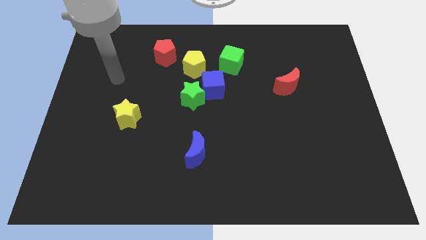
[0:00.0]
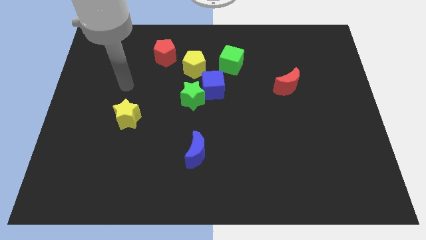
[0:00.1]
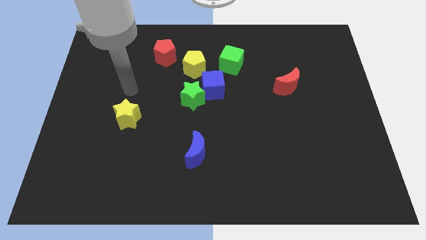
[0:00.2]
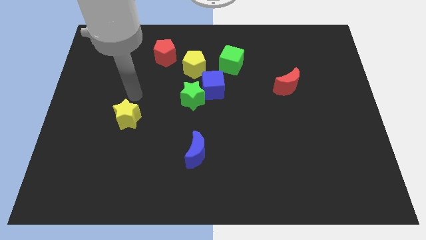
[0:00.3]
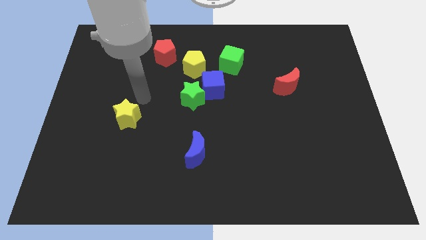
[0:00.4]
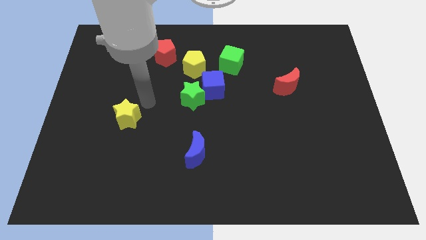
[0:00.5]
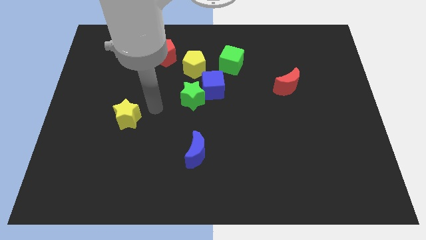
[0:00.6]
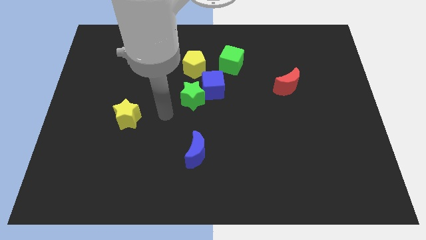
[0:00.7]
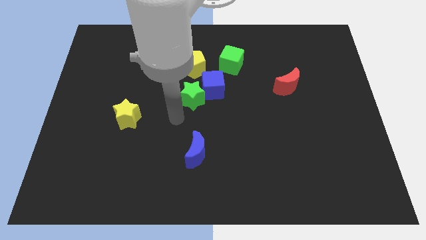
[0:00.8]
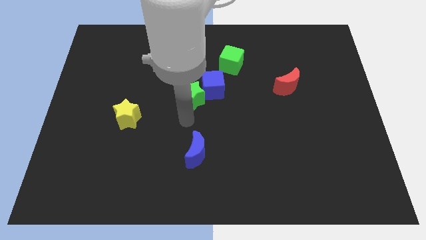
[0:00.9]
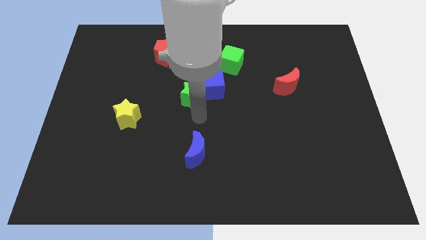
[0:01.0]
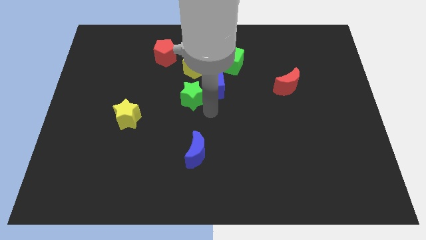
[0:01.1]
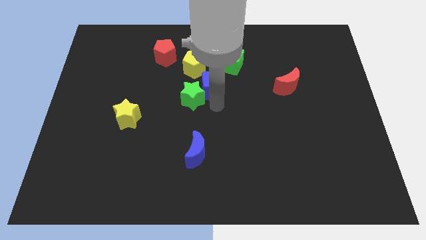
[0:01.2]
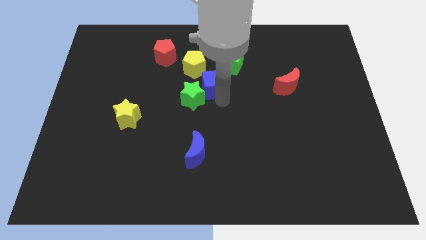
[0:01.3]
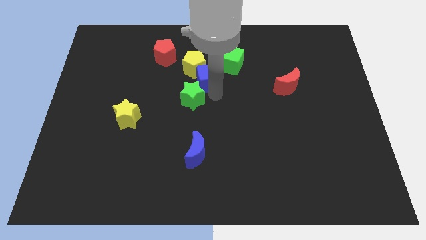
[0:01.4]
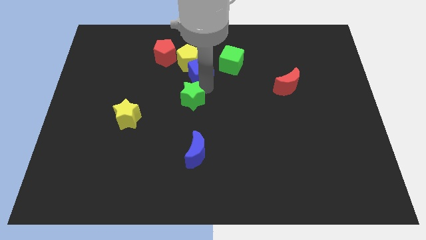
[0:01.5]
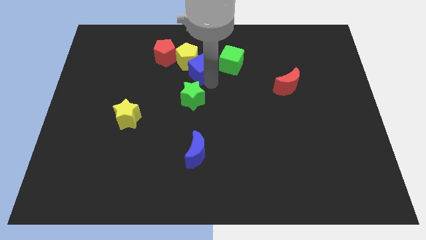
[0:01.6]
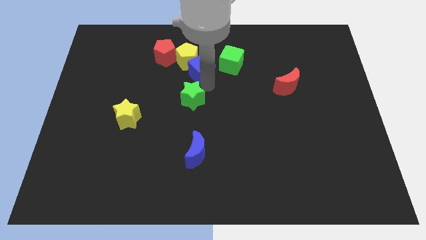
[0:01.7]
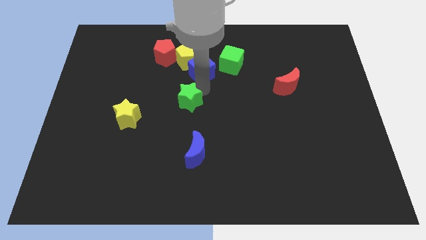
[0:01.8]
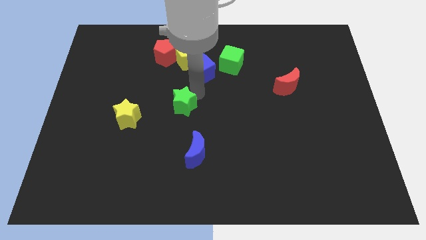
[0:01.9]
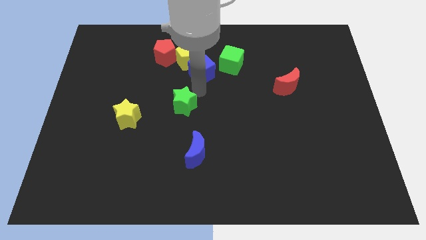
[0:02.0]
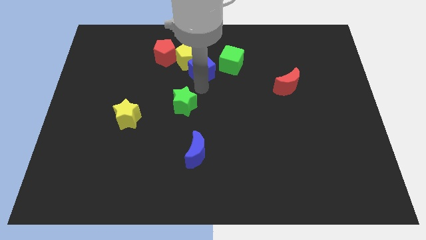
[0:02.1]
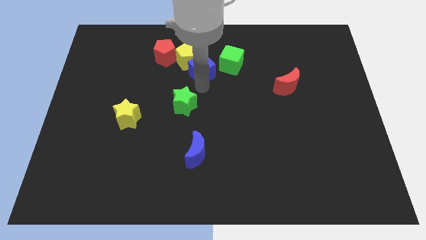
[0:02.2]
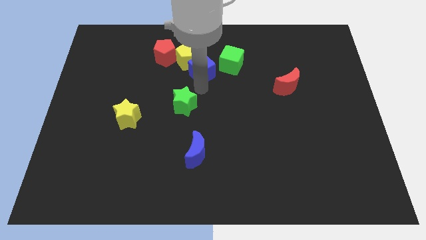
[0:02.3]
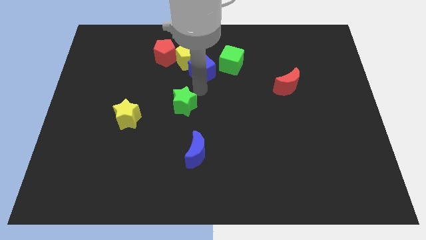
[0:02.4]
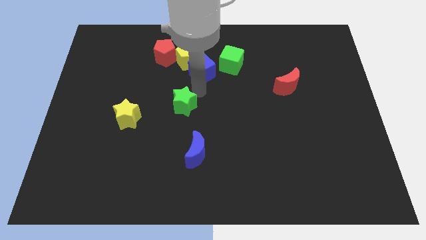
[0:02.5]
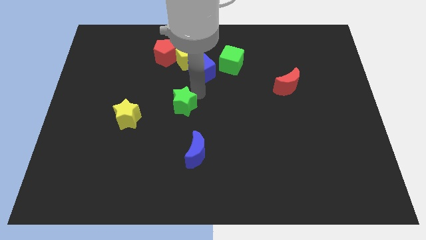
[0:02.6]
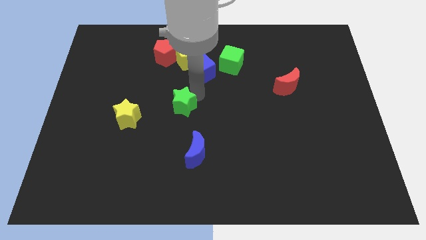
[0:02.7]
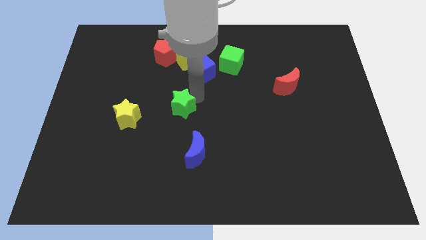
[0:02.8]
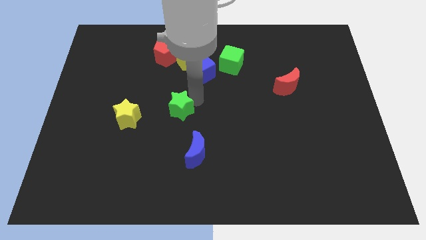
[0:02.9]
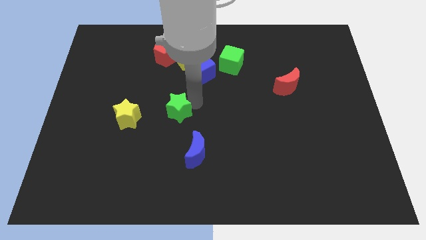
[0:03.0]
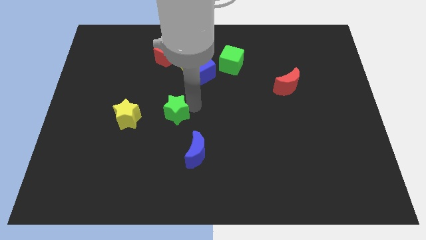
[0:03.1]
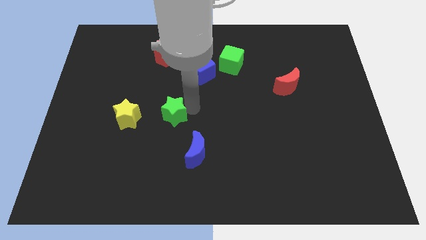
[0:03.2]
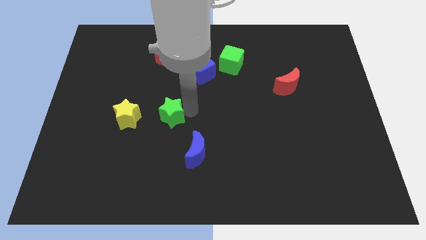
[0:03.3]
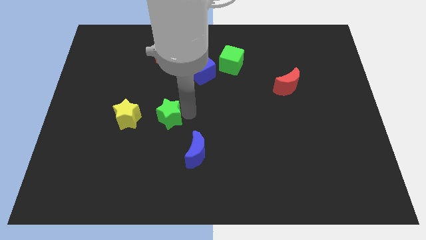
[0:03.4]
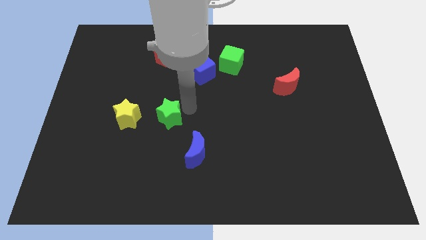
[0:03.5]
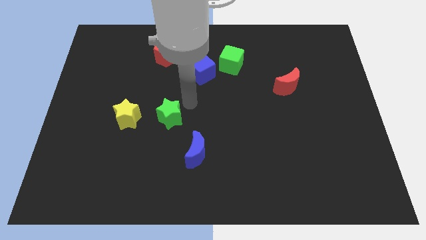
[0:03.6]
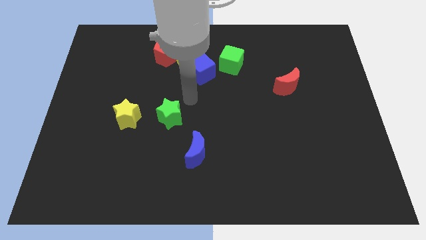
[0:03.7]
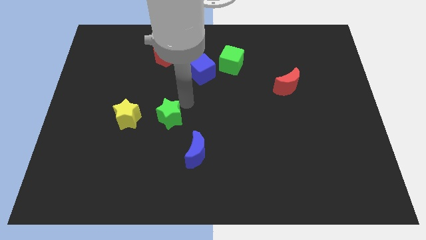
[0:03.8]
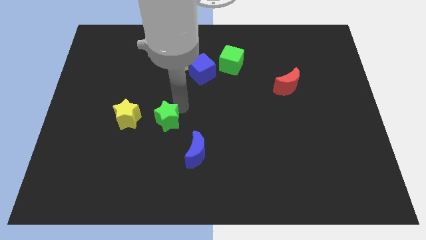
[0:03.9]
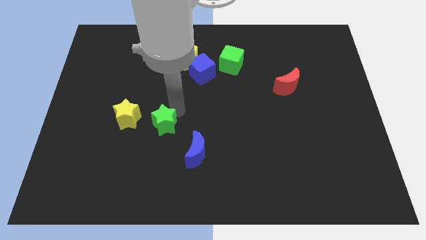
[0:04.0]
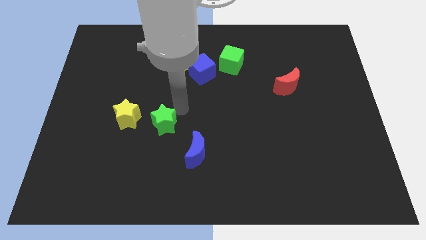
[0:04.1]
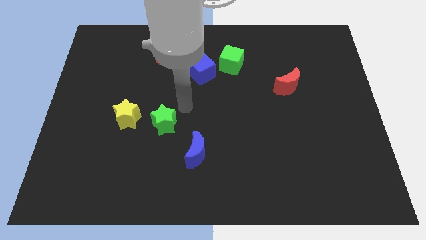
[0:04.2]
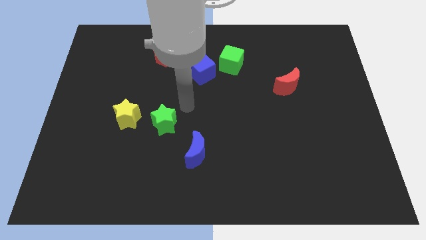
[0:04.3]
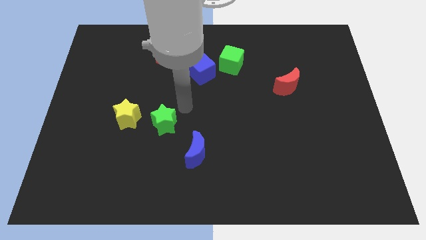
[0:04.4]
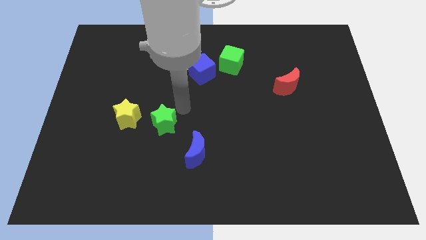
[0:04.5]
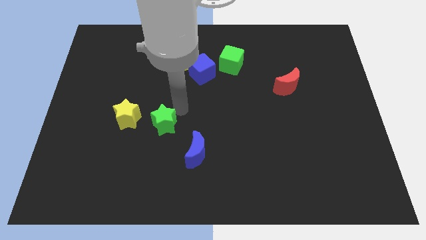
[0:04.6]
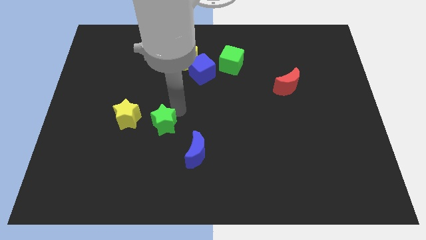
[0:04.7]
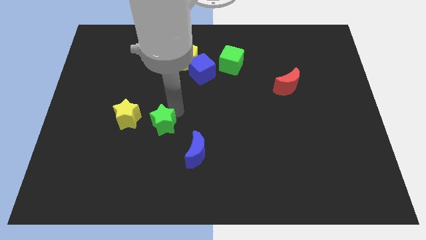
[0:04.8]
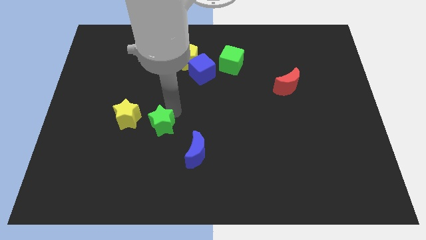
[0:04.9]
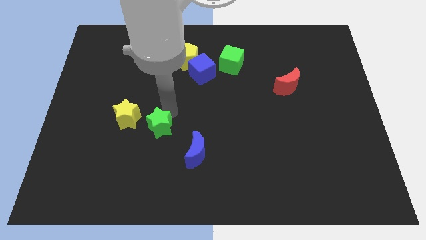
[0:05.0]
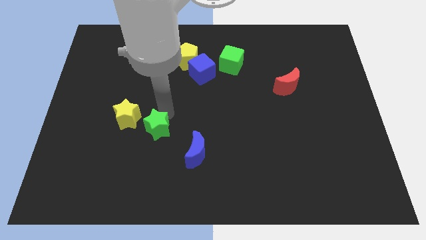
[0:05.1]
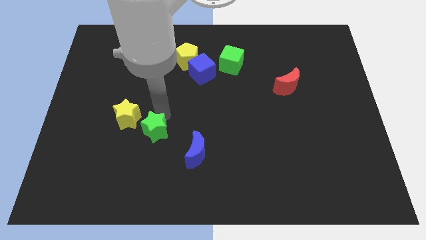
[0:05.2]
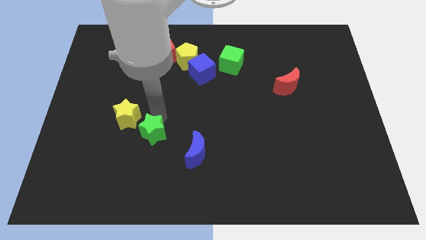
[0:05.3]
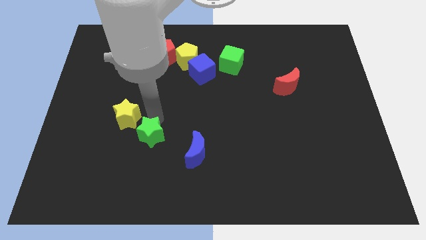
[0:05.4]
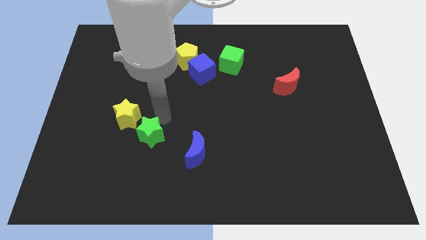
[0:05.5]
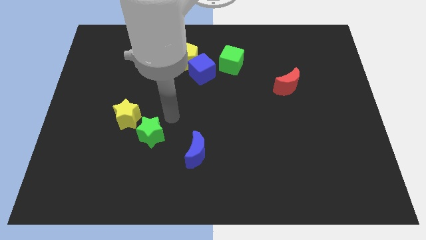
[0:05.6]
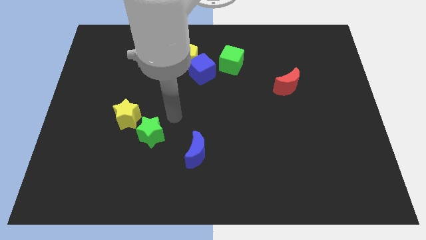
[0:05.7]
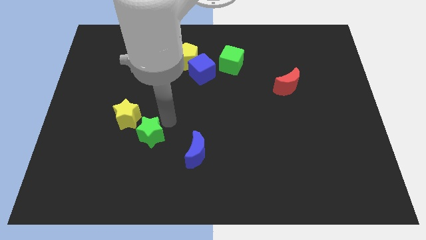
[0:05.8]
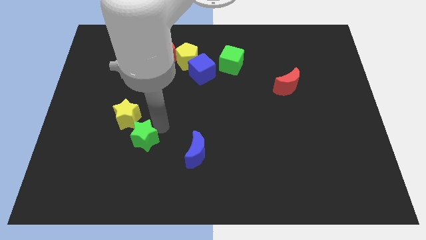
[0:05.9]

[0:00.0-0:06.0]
put the green star to the bottom side of the yellow star

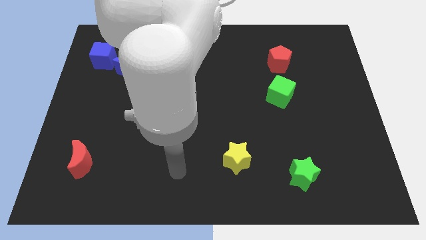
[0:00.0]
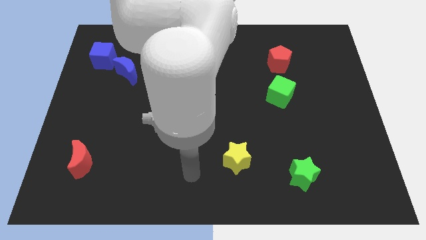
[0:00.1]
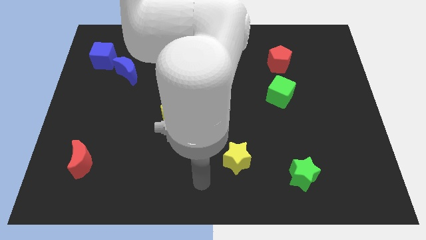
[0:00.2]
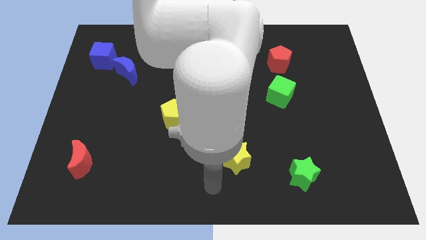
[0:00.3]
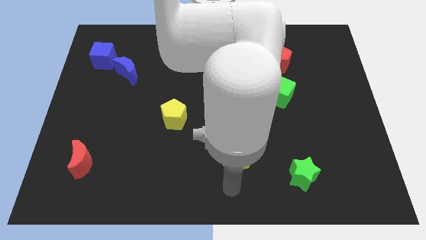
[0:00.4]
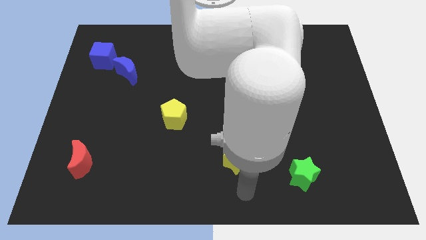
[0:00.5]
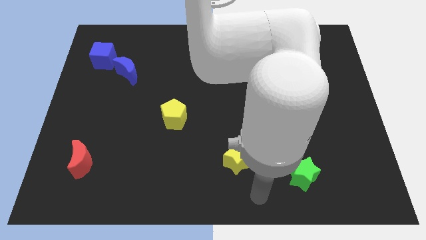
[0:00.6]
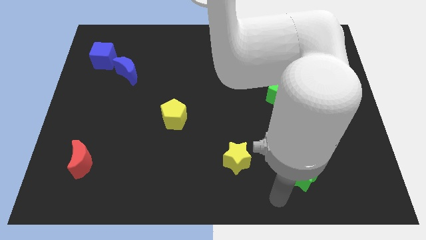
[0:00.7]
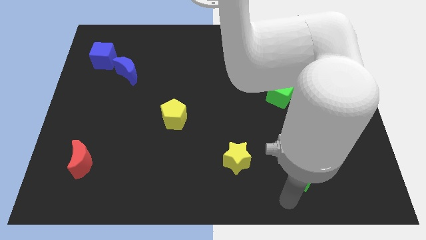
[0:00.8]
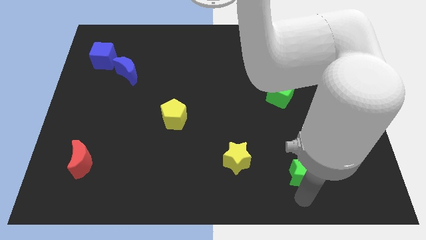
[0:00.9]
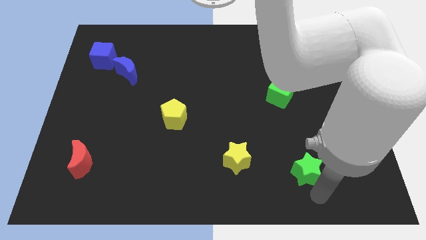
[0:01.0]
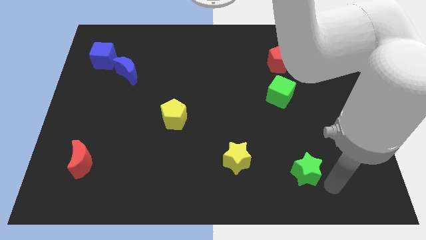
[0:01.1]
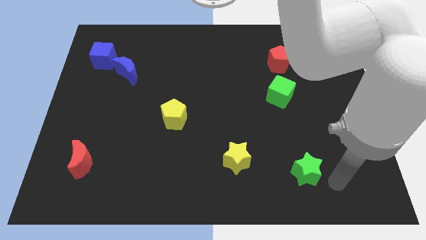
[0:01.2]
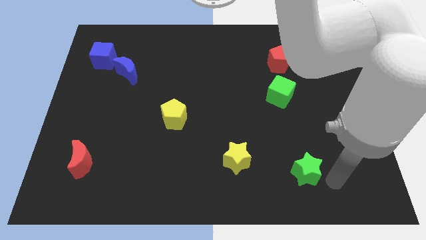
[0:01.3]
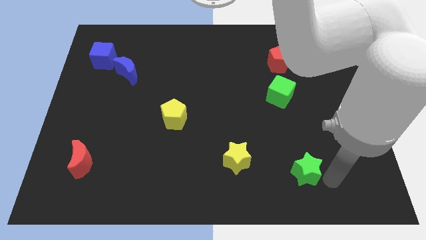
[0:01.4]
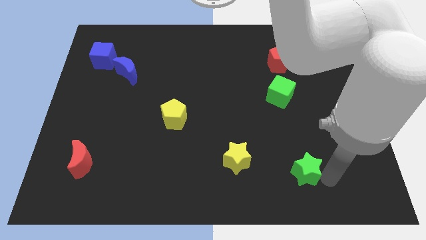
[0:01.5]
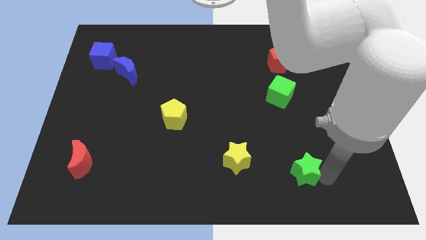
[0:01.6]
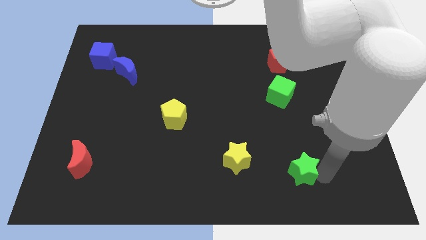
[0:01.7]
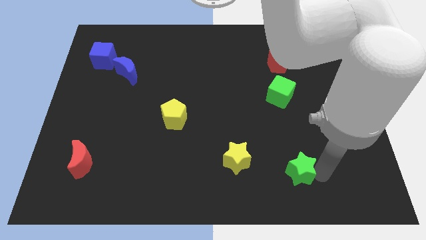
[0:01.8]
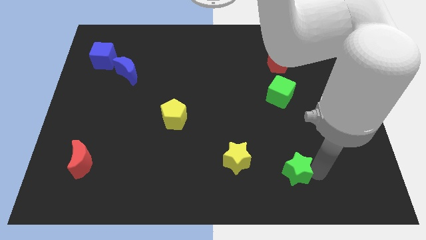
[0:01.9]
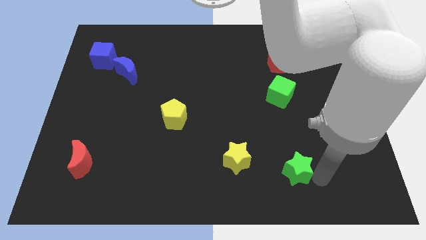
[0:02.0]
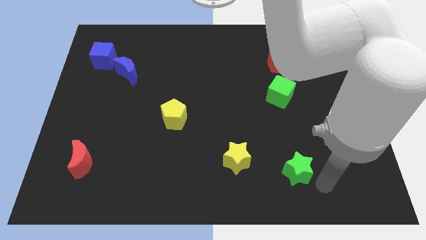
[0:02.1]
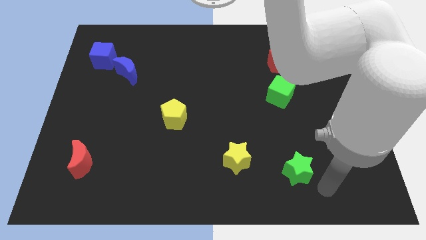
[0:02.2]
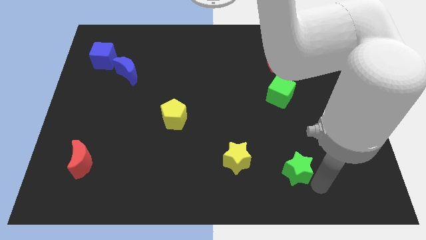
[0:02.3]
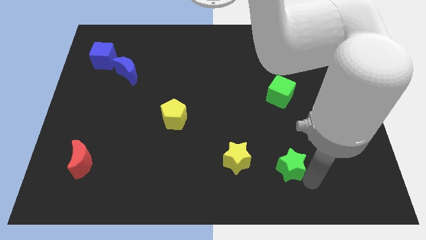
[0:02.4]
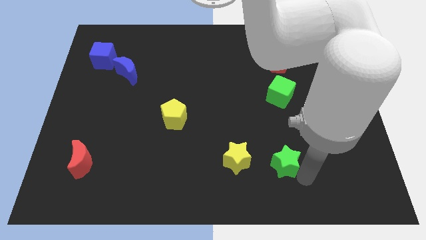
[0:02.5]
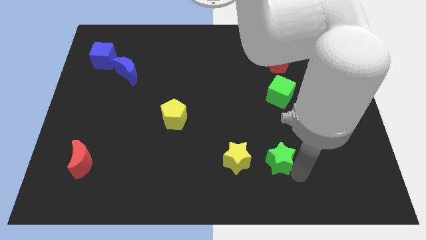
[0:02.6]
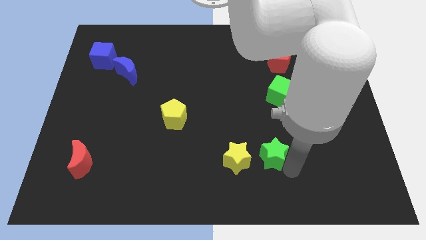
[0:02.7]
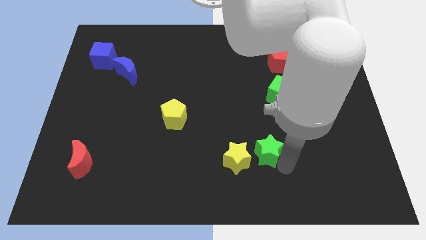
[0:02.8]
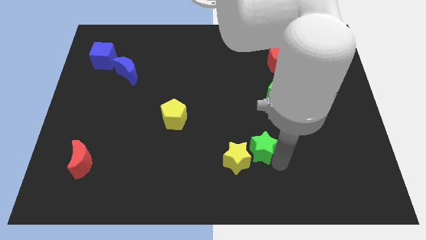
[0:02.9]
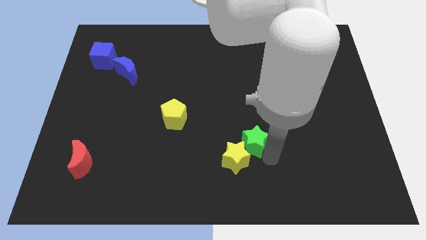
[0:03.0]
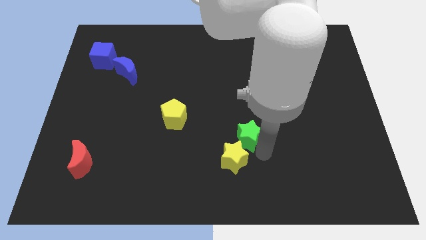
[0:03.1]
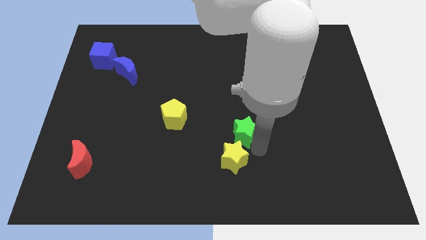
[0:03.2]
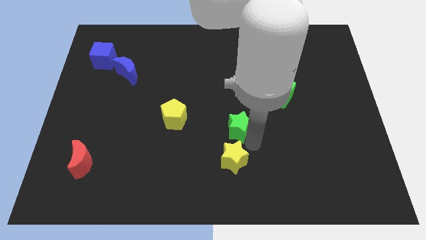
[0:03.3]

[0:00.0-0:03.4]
move the green star right of the yellow pentagon
